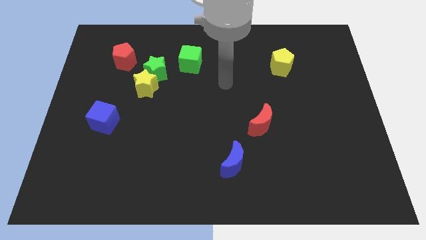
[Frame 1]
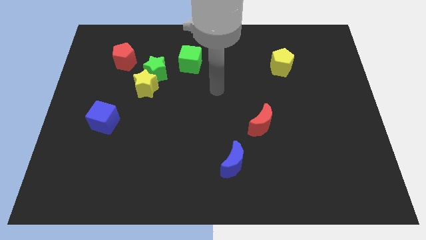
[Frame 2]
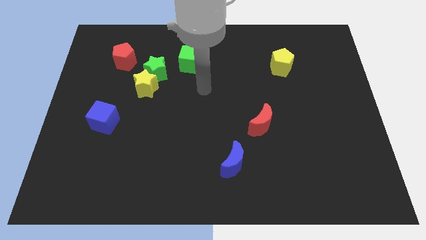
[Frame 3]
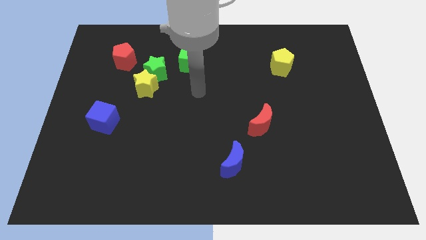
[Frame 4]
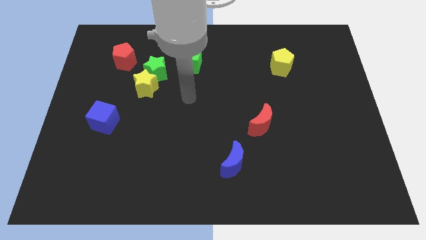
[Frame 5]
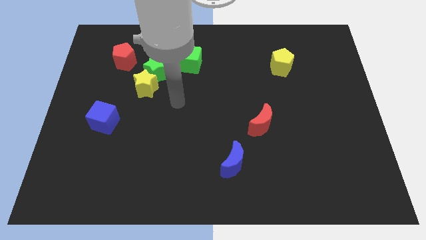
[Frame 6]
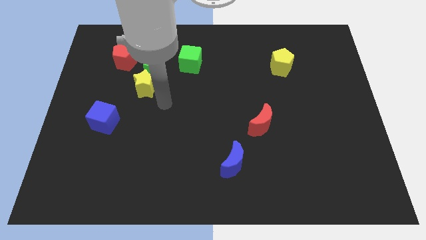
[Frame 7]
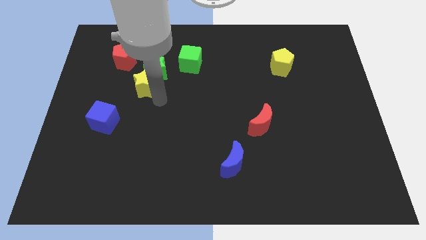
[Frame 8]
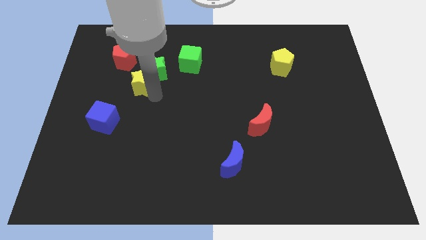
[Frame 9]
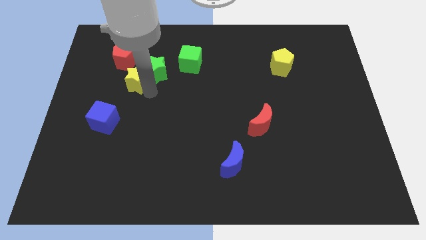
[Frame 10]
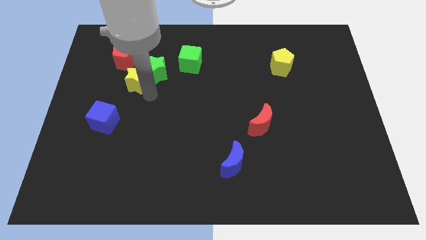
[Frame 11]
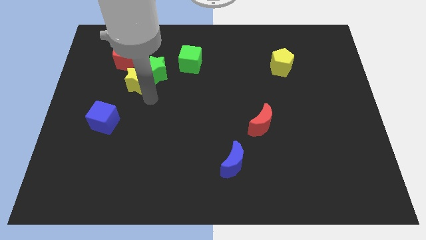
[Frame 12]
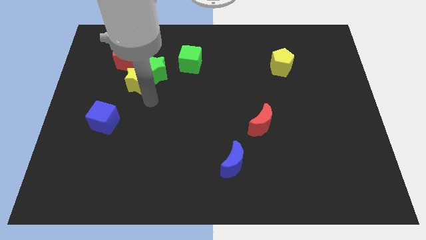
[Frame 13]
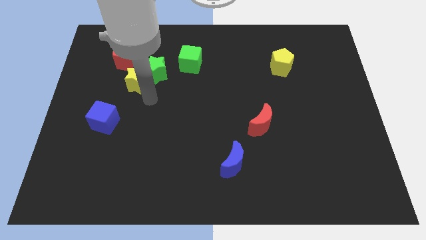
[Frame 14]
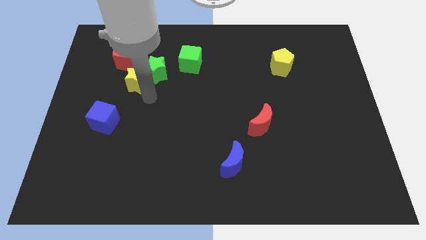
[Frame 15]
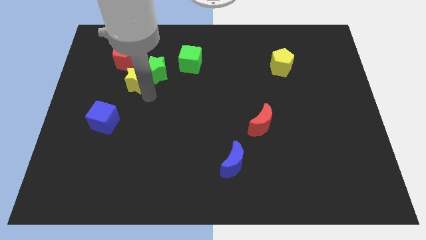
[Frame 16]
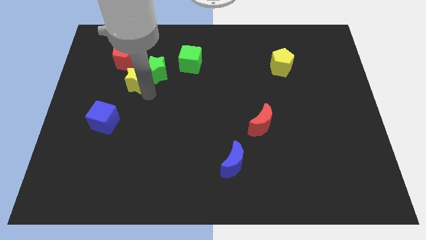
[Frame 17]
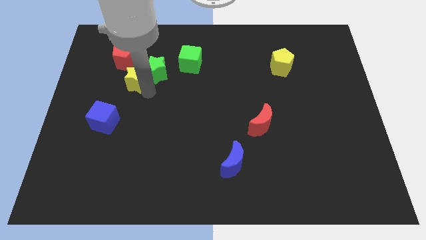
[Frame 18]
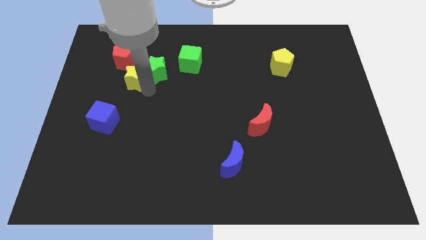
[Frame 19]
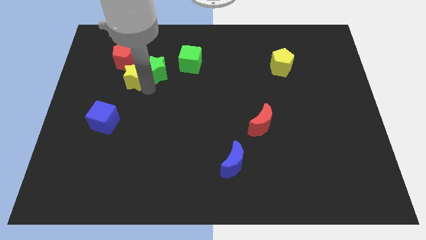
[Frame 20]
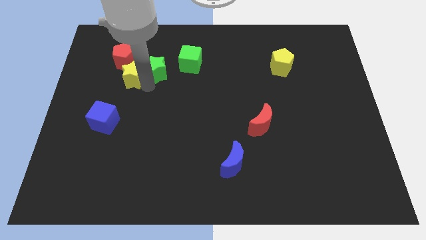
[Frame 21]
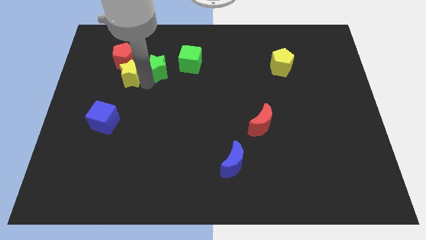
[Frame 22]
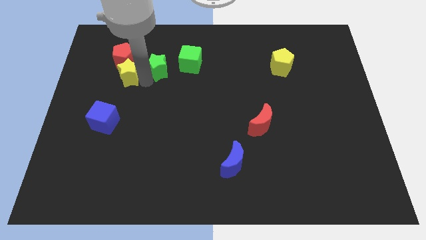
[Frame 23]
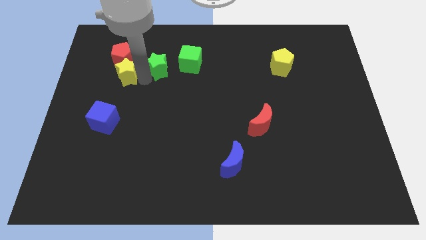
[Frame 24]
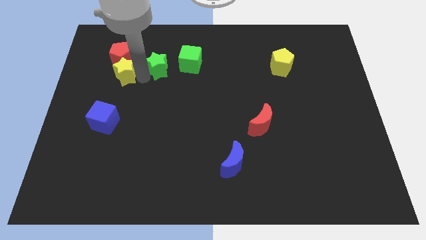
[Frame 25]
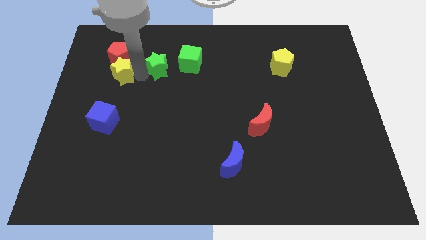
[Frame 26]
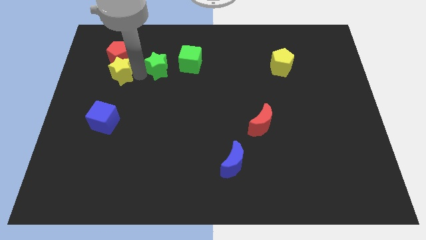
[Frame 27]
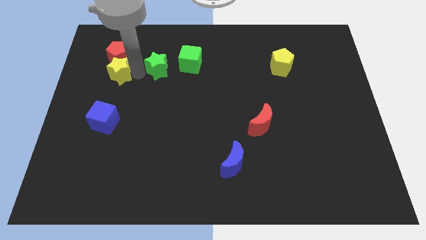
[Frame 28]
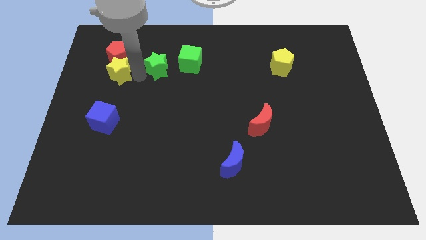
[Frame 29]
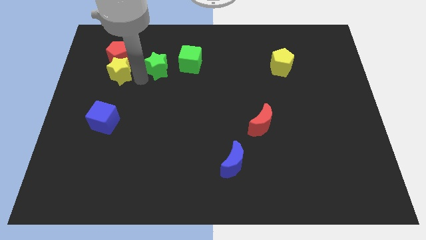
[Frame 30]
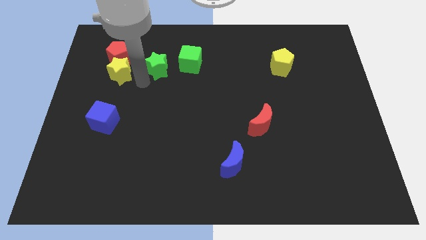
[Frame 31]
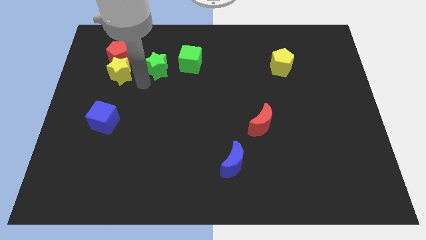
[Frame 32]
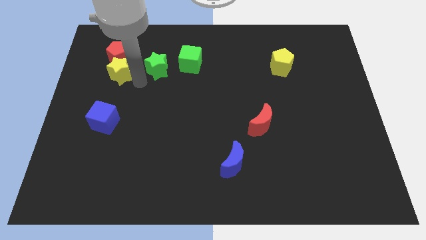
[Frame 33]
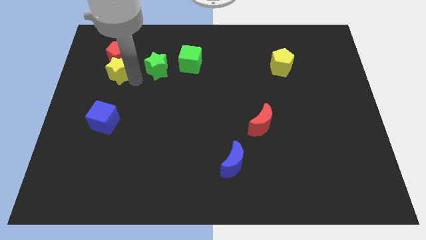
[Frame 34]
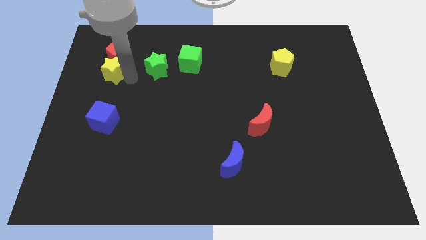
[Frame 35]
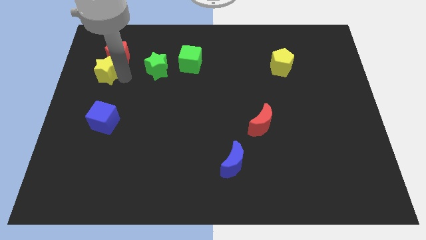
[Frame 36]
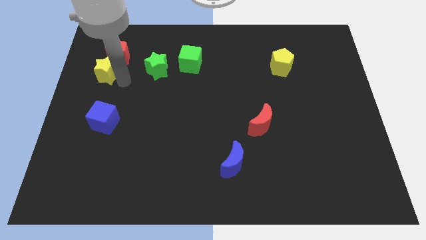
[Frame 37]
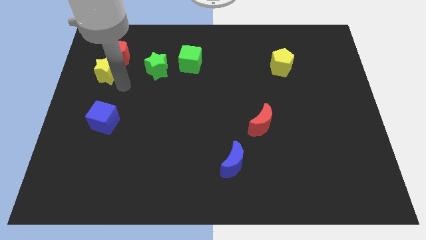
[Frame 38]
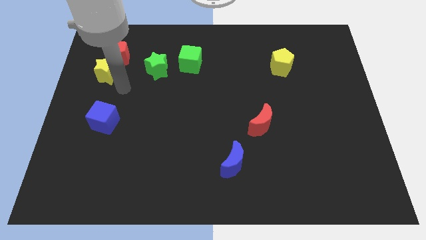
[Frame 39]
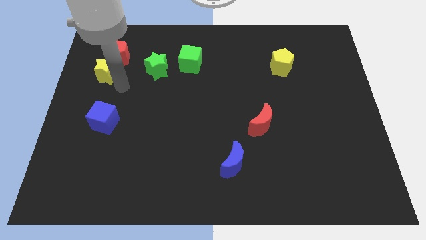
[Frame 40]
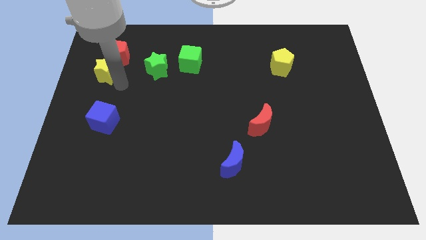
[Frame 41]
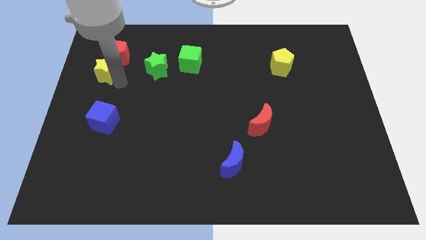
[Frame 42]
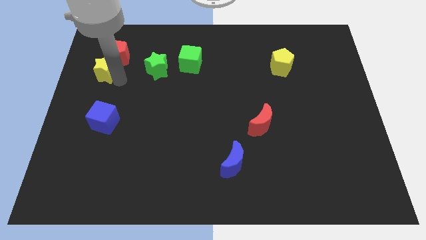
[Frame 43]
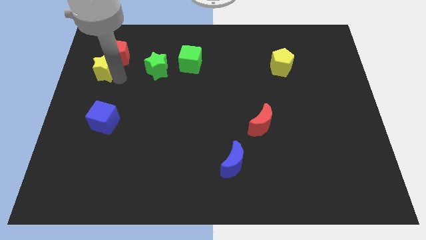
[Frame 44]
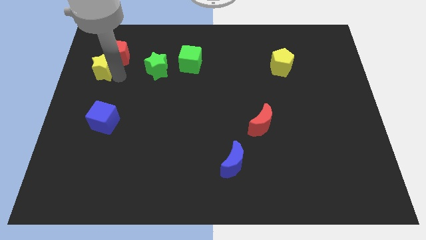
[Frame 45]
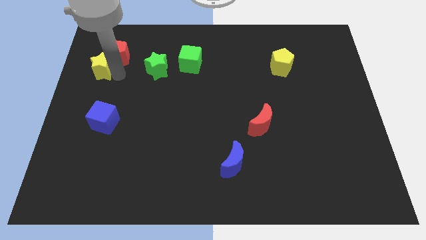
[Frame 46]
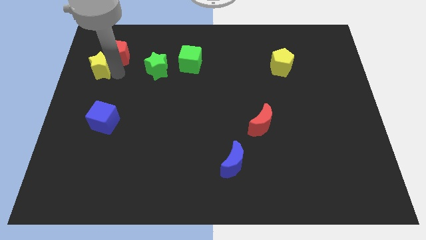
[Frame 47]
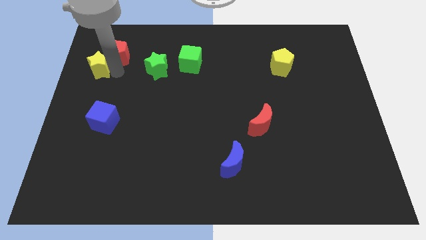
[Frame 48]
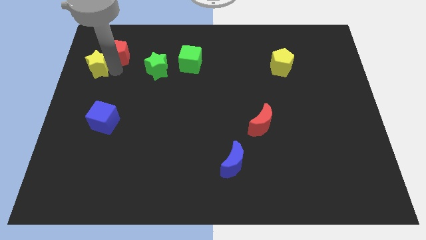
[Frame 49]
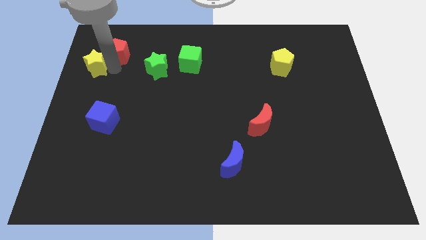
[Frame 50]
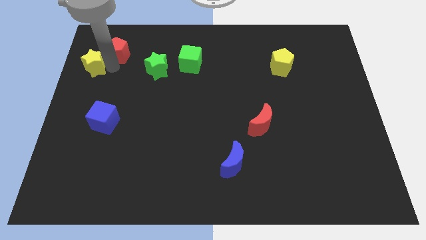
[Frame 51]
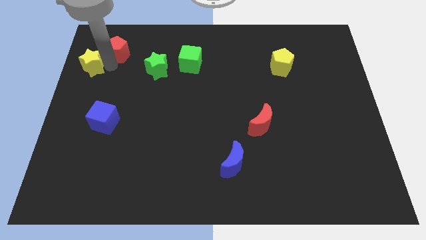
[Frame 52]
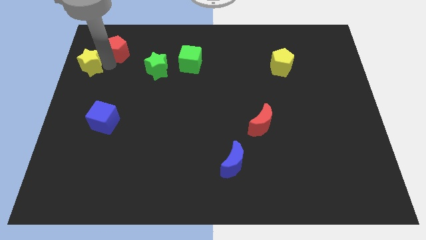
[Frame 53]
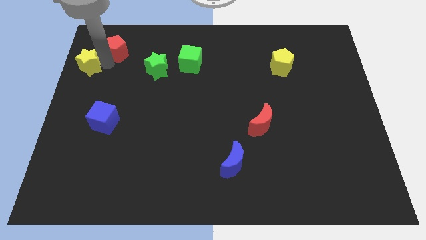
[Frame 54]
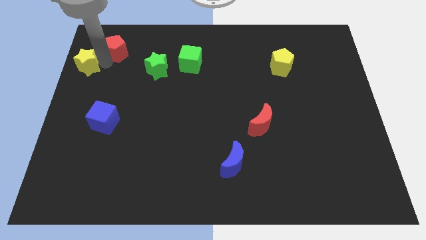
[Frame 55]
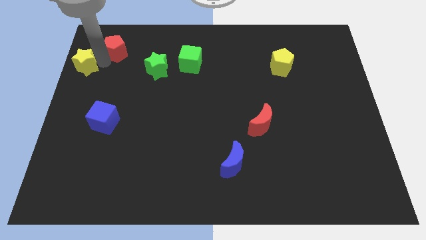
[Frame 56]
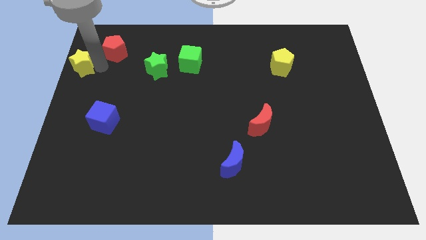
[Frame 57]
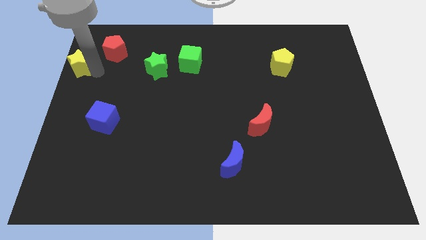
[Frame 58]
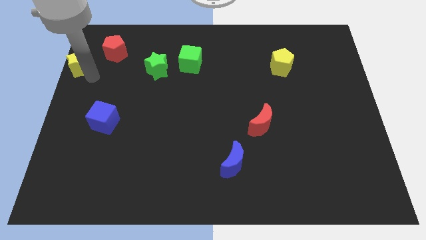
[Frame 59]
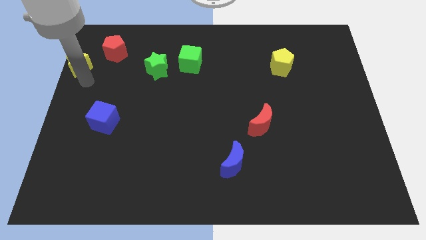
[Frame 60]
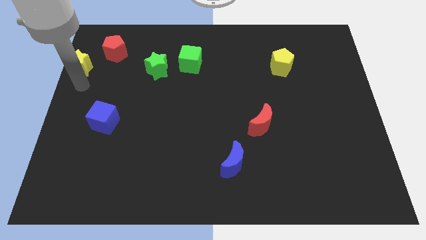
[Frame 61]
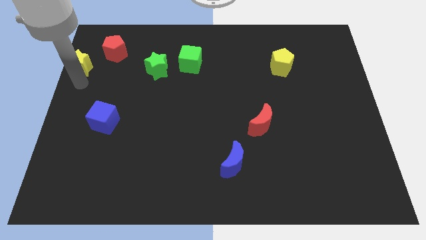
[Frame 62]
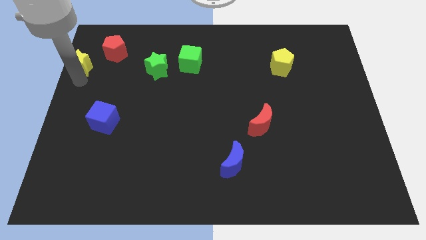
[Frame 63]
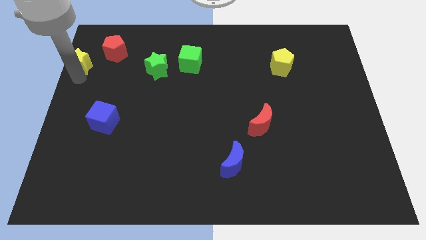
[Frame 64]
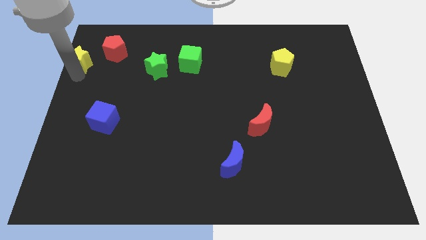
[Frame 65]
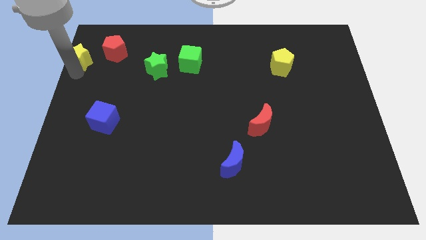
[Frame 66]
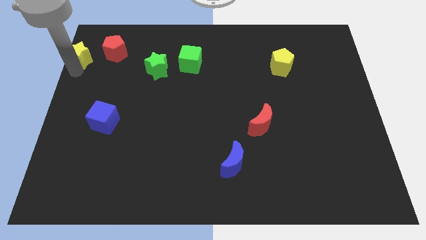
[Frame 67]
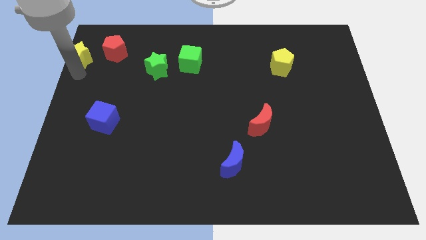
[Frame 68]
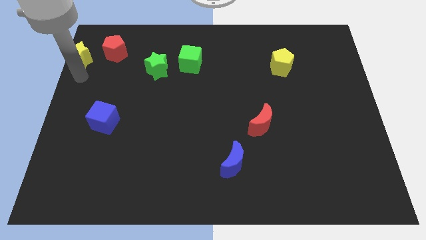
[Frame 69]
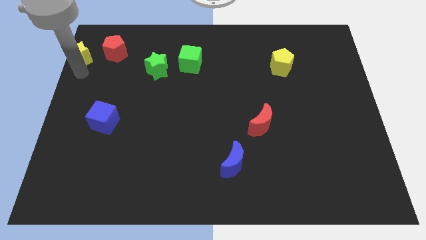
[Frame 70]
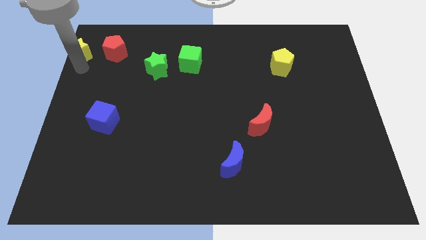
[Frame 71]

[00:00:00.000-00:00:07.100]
move the yellow star to the top left
